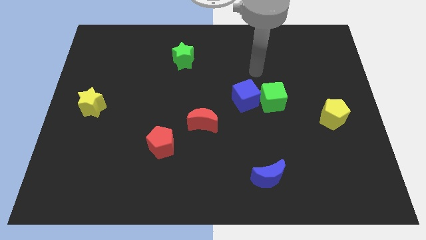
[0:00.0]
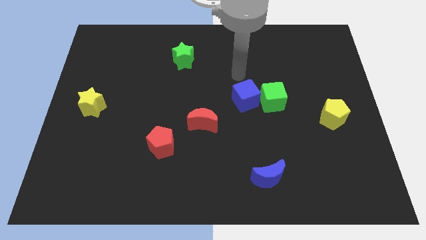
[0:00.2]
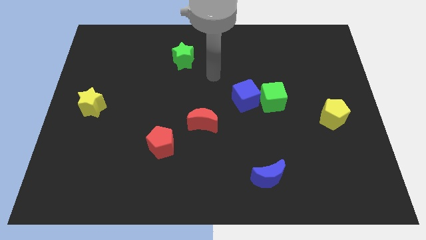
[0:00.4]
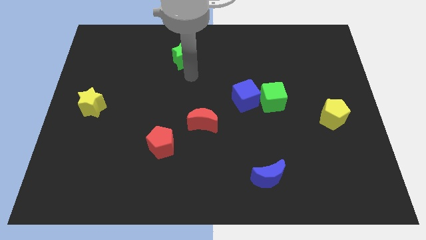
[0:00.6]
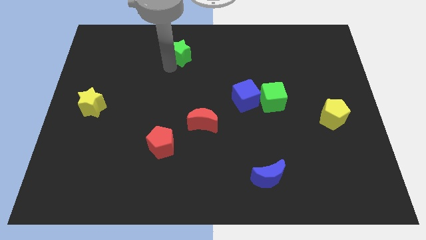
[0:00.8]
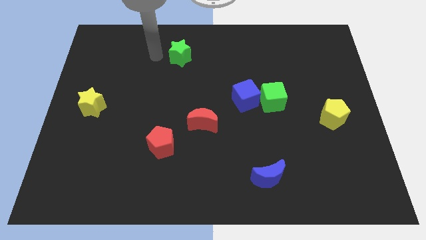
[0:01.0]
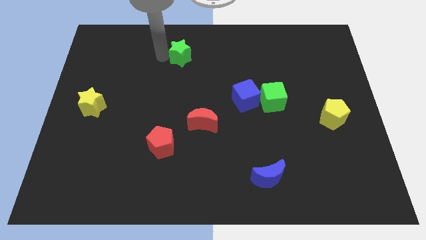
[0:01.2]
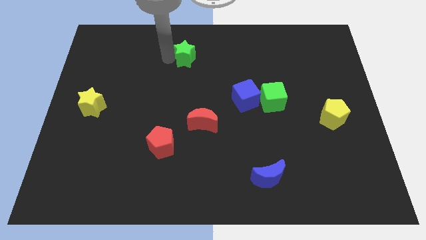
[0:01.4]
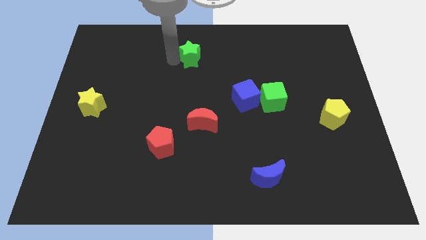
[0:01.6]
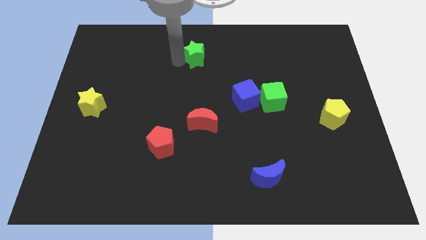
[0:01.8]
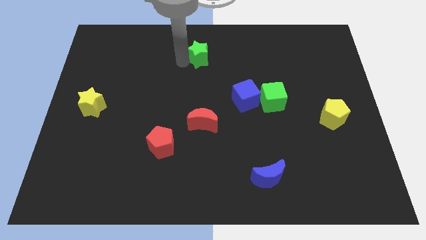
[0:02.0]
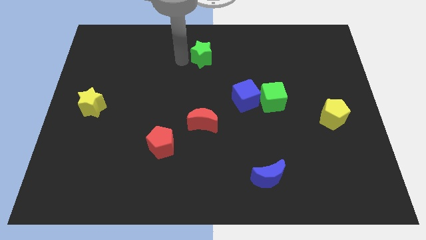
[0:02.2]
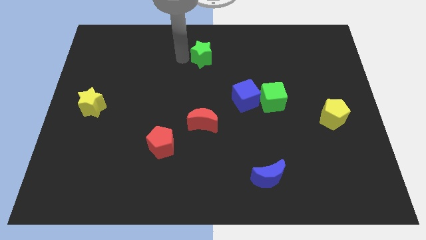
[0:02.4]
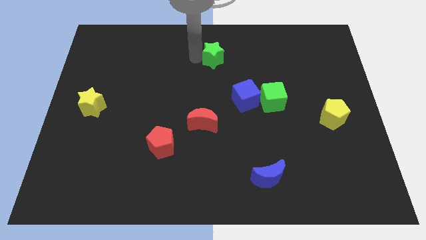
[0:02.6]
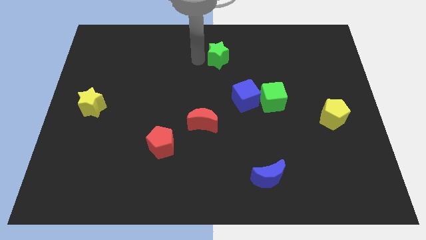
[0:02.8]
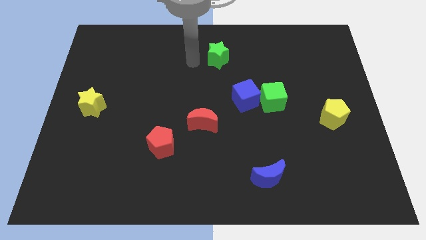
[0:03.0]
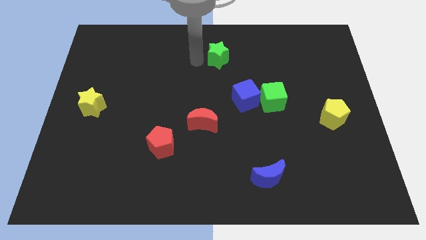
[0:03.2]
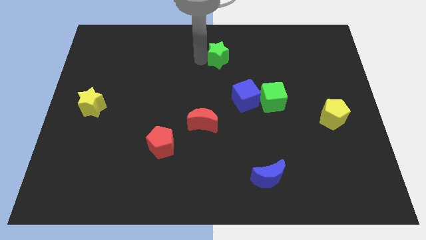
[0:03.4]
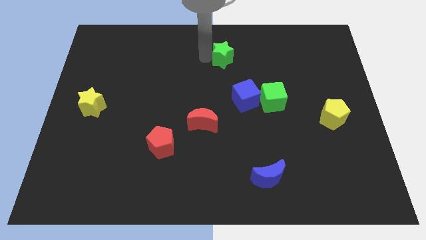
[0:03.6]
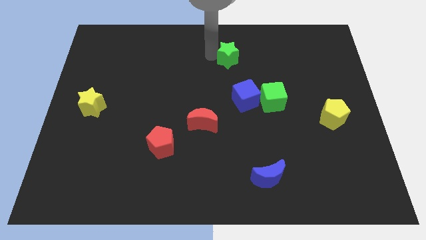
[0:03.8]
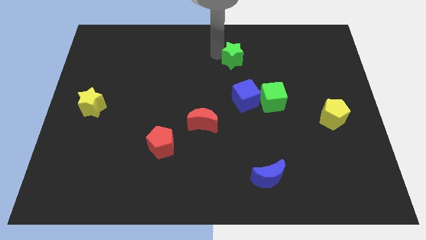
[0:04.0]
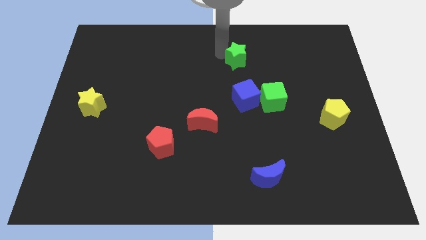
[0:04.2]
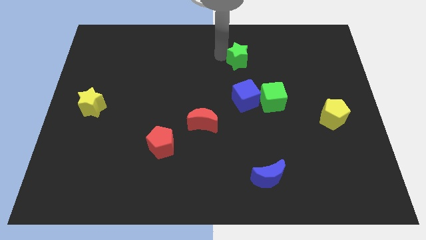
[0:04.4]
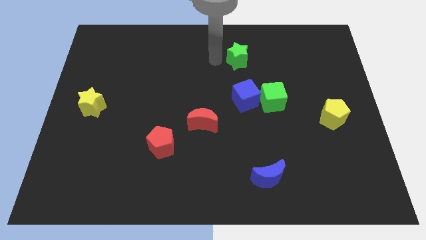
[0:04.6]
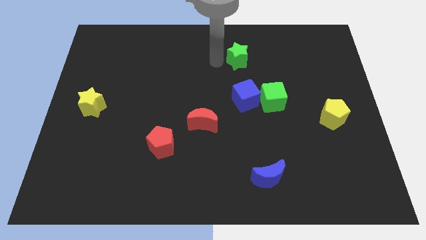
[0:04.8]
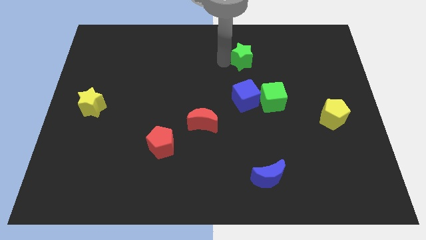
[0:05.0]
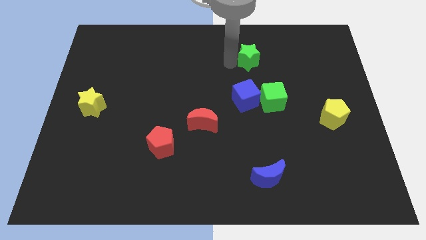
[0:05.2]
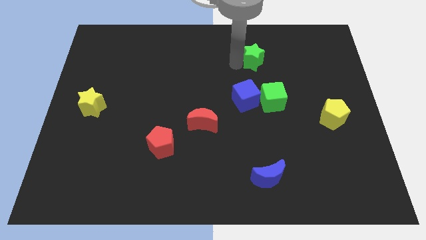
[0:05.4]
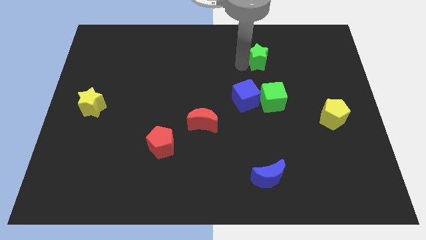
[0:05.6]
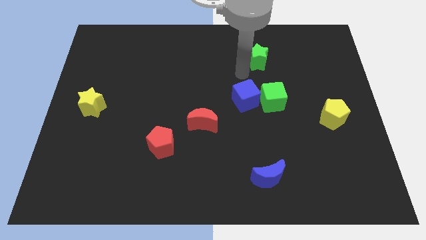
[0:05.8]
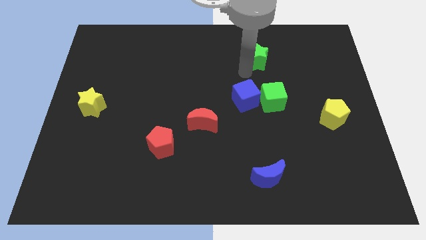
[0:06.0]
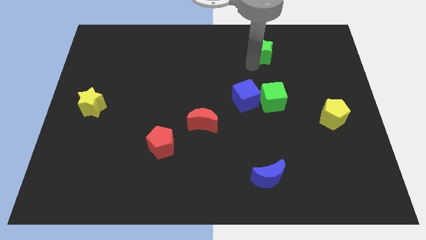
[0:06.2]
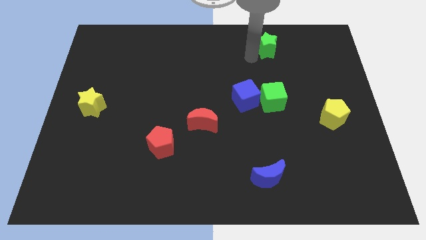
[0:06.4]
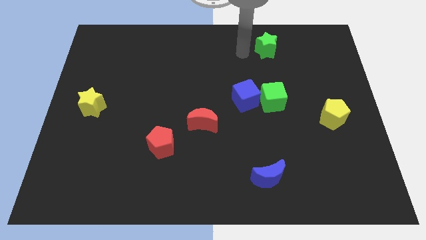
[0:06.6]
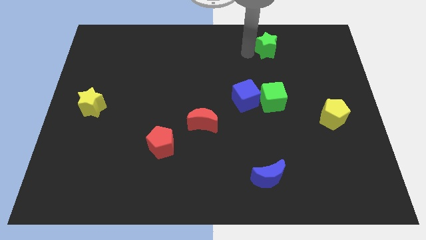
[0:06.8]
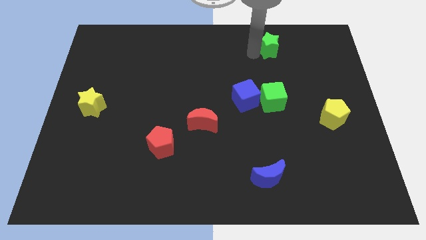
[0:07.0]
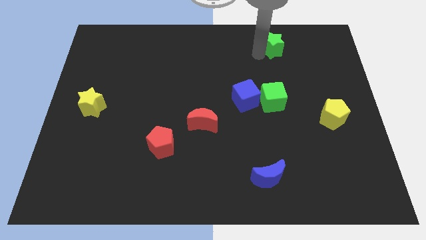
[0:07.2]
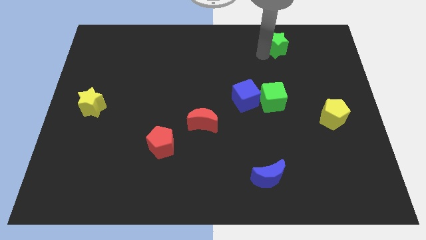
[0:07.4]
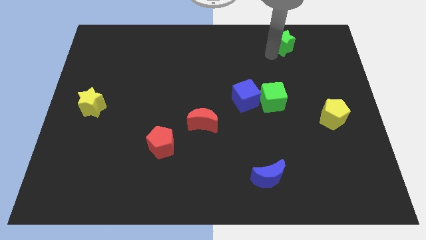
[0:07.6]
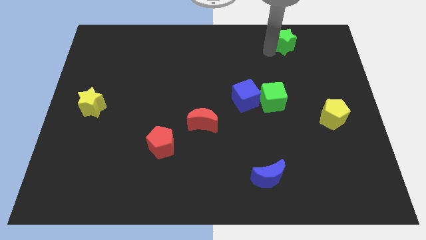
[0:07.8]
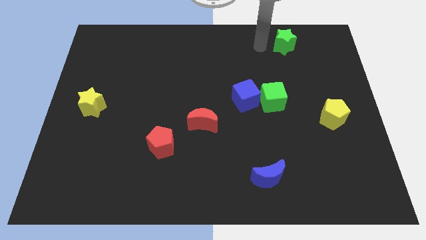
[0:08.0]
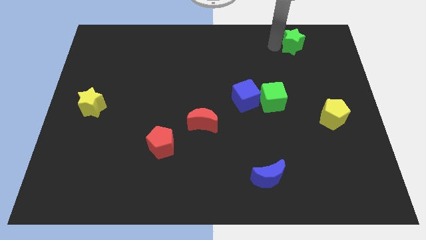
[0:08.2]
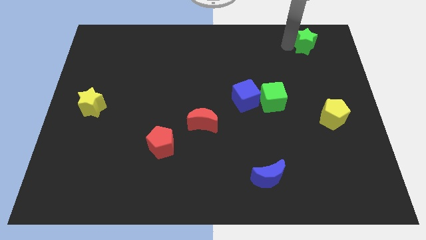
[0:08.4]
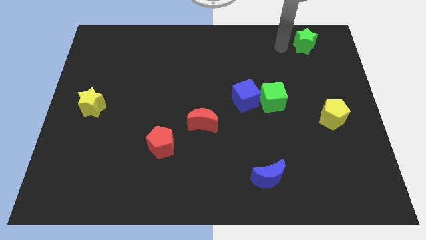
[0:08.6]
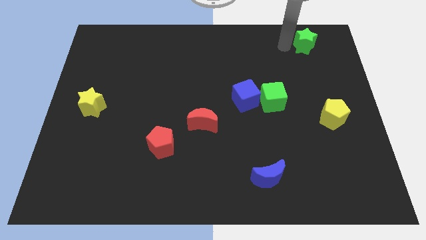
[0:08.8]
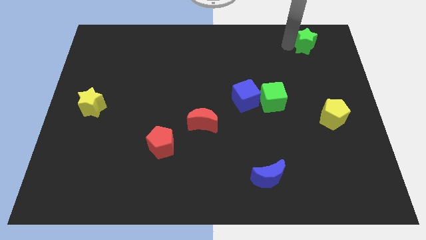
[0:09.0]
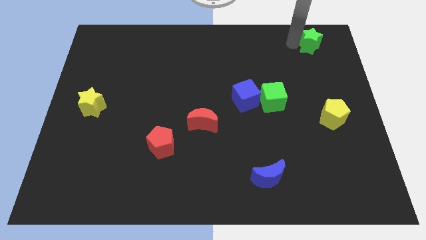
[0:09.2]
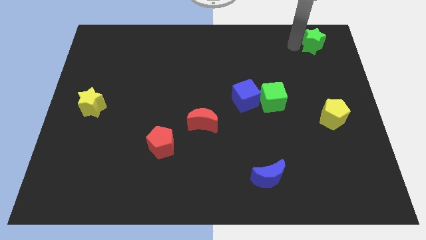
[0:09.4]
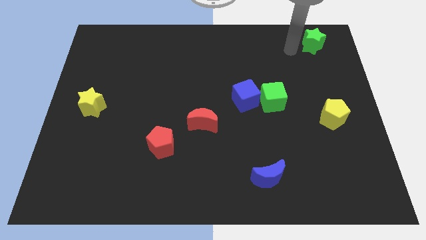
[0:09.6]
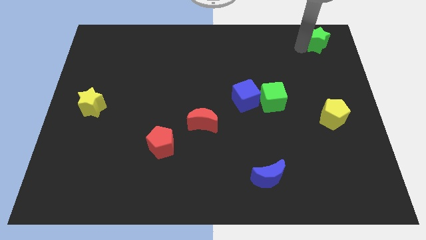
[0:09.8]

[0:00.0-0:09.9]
move the green star to the top right

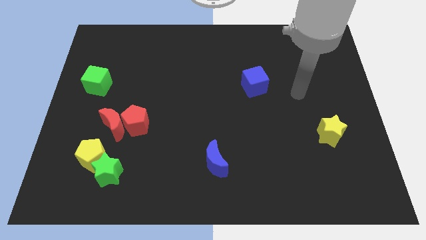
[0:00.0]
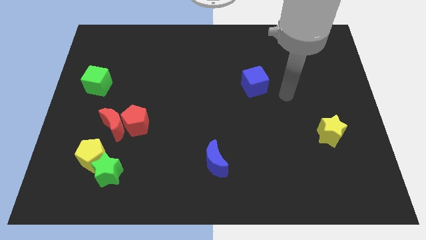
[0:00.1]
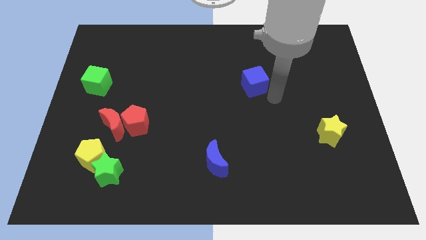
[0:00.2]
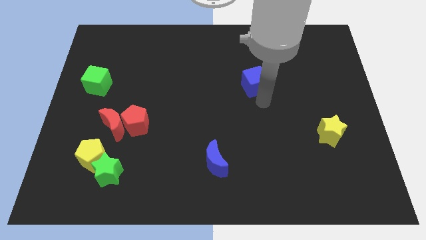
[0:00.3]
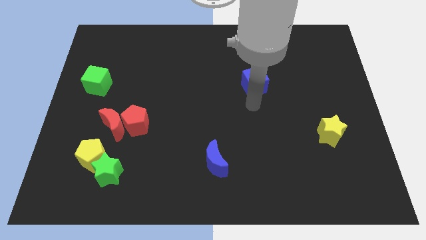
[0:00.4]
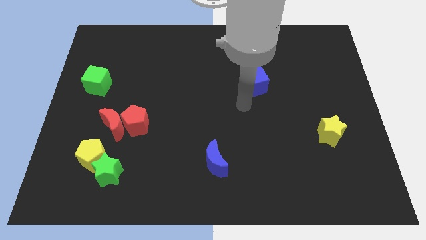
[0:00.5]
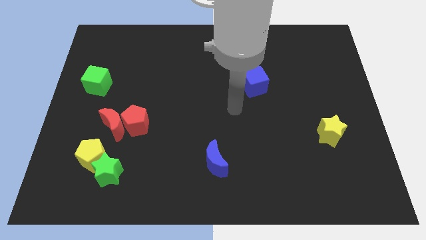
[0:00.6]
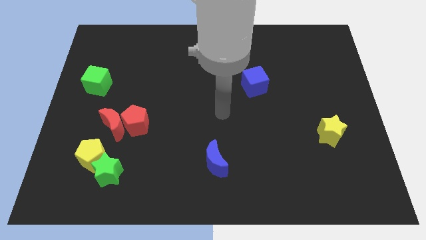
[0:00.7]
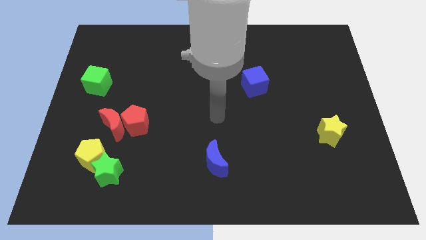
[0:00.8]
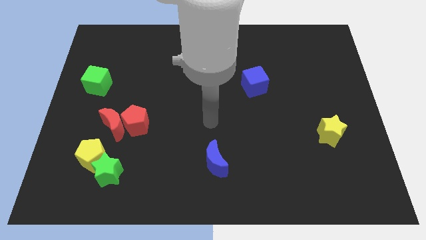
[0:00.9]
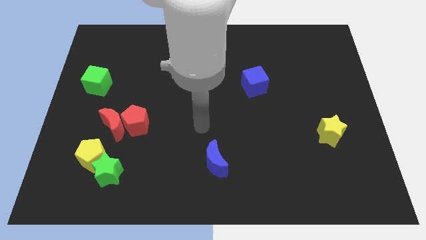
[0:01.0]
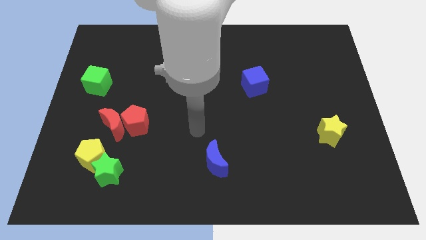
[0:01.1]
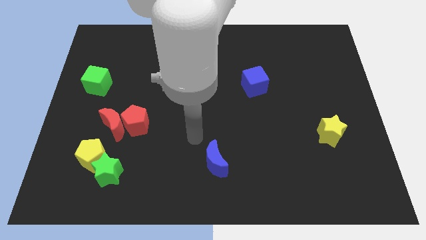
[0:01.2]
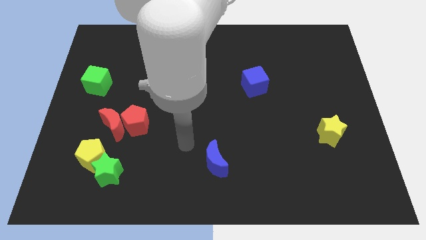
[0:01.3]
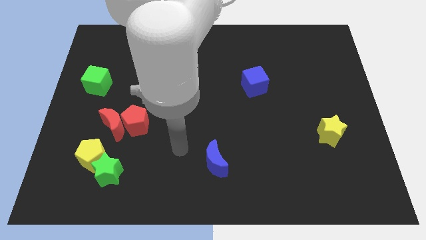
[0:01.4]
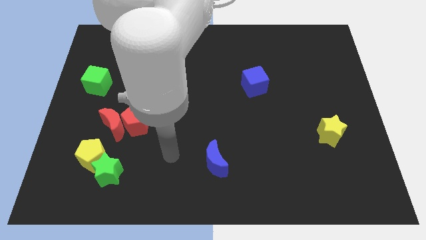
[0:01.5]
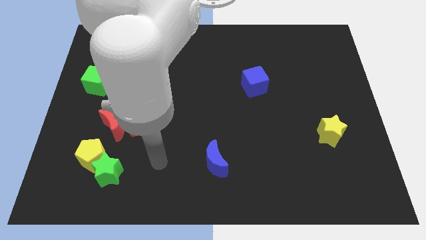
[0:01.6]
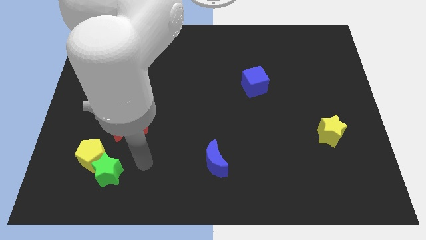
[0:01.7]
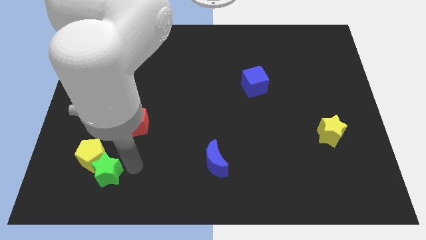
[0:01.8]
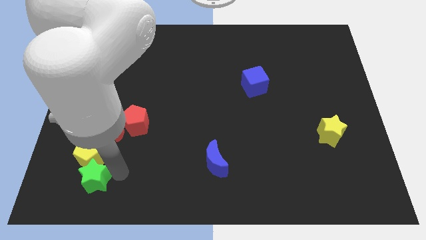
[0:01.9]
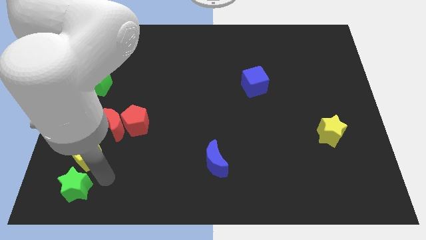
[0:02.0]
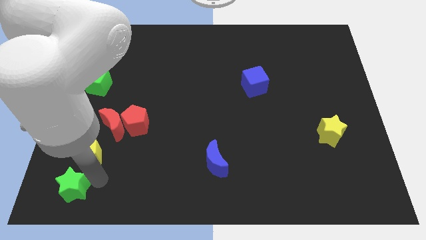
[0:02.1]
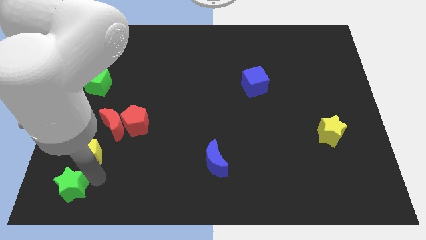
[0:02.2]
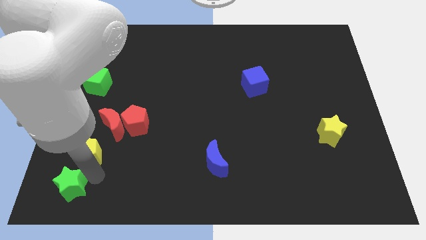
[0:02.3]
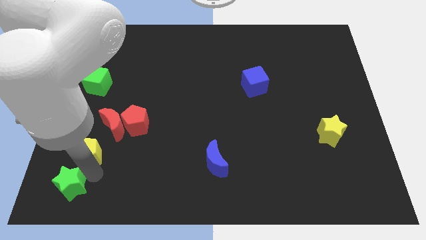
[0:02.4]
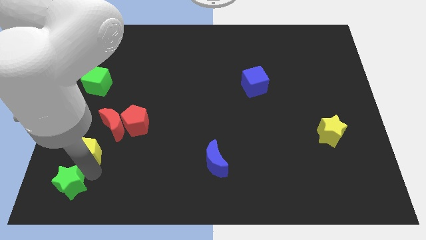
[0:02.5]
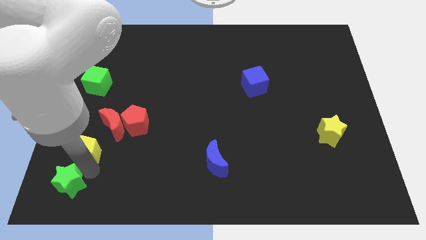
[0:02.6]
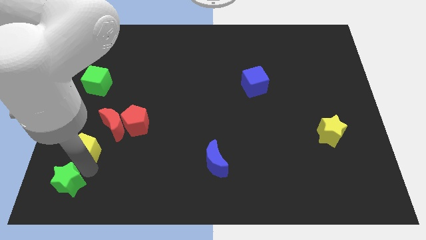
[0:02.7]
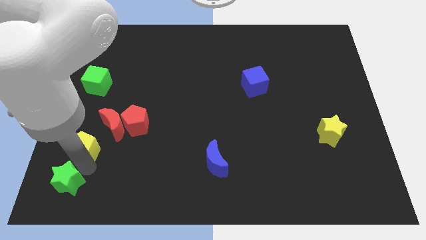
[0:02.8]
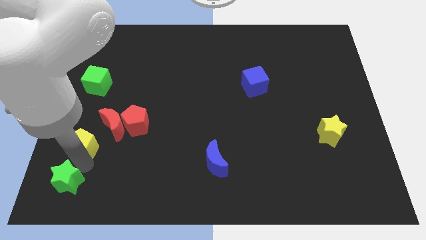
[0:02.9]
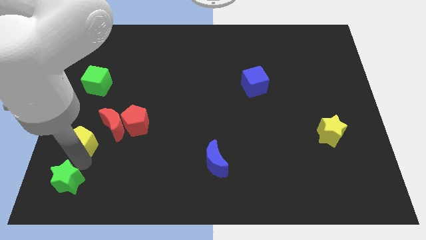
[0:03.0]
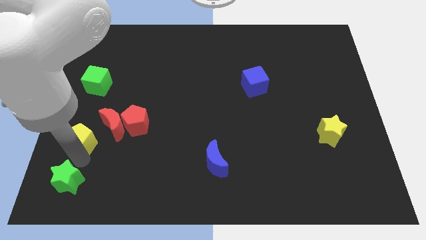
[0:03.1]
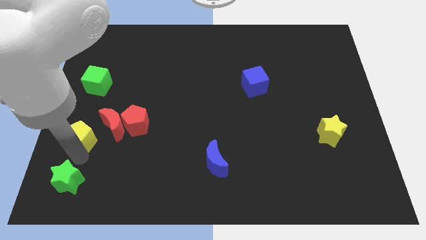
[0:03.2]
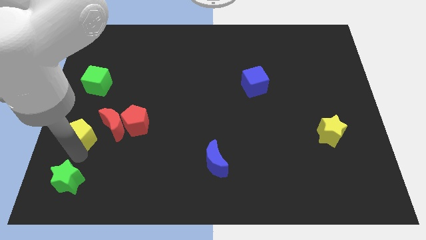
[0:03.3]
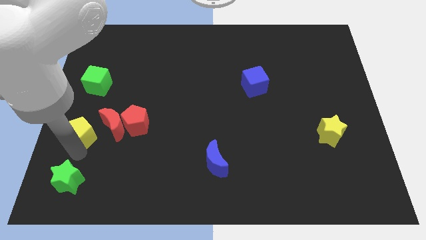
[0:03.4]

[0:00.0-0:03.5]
put the yellow pentagon to the left side of the board
